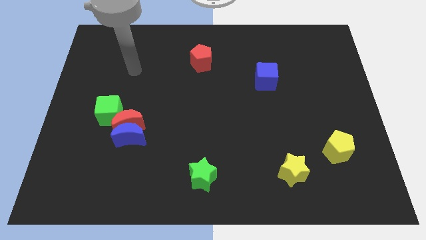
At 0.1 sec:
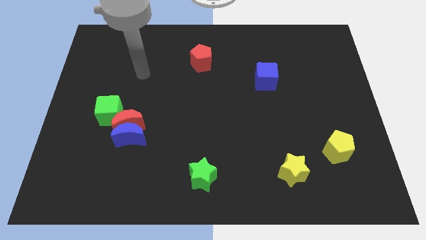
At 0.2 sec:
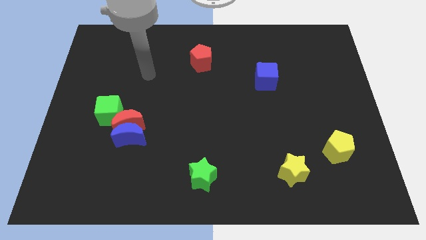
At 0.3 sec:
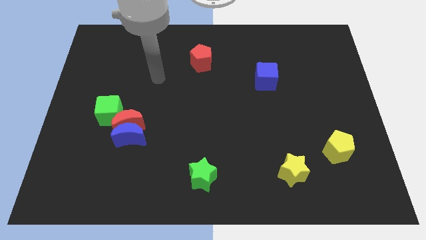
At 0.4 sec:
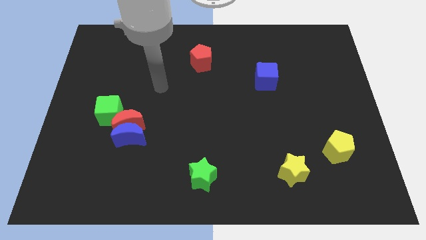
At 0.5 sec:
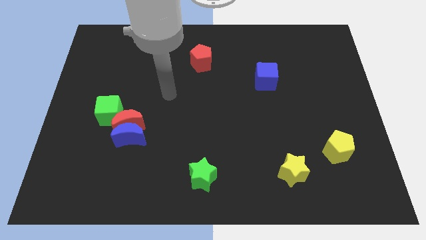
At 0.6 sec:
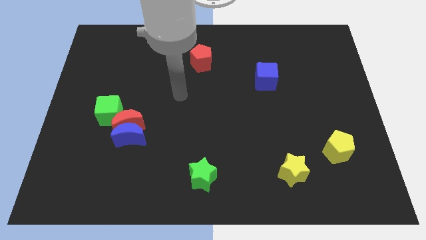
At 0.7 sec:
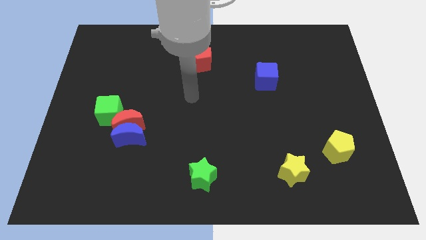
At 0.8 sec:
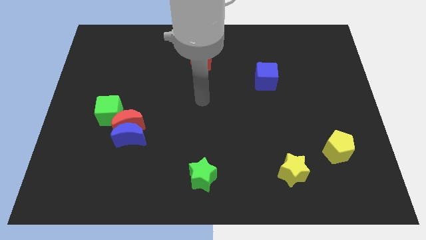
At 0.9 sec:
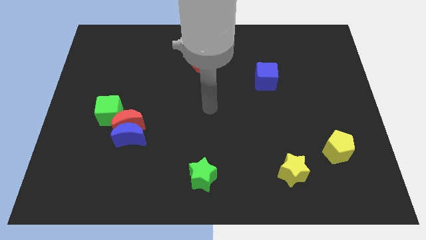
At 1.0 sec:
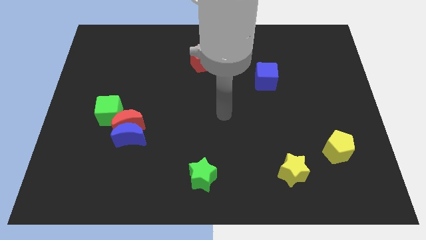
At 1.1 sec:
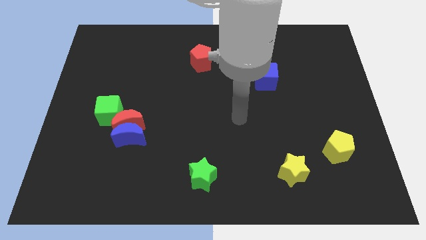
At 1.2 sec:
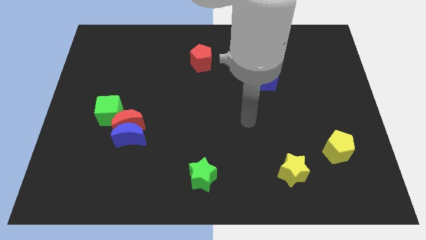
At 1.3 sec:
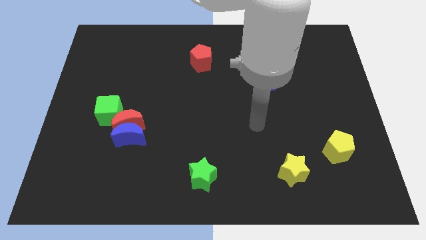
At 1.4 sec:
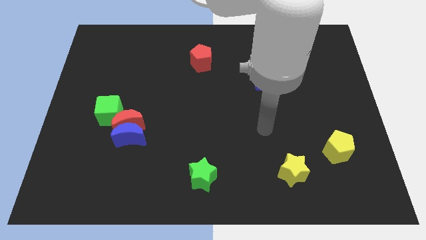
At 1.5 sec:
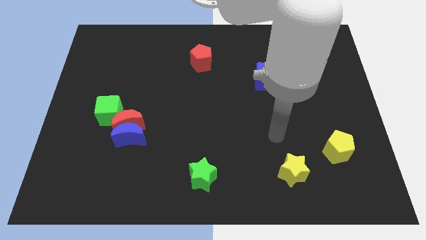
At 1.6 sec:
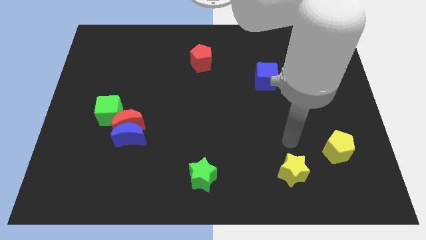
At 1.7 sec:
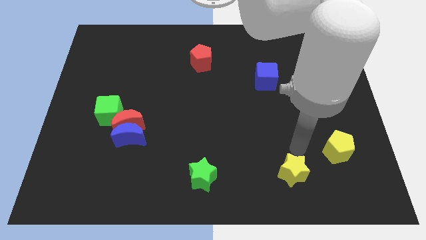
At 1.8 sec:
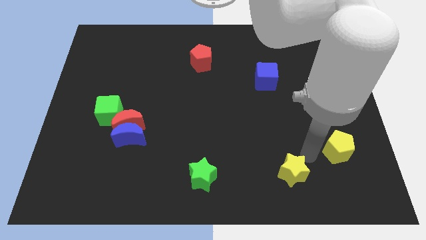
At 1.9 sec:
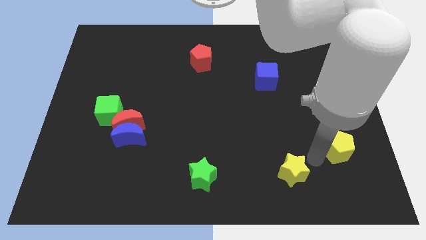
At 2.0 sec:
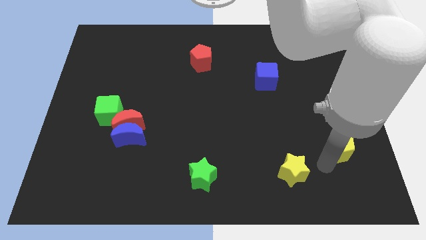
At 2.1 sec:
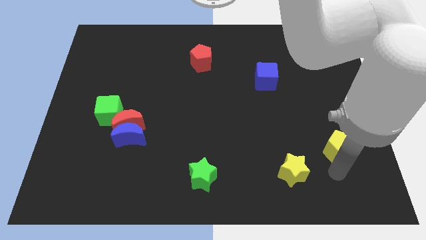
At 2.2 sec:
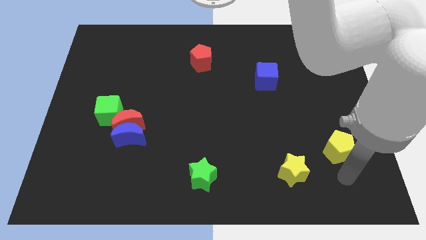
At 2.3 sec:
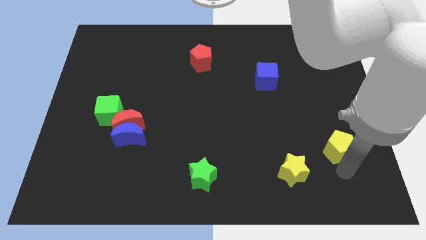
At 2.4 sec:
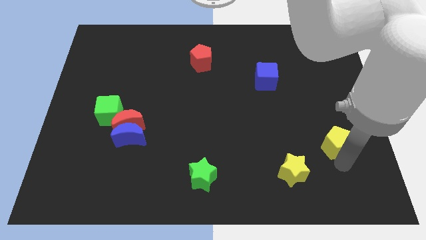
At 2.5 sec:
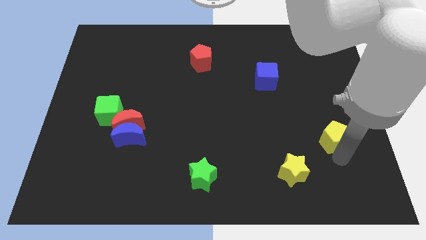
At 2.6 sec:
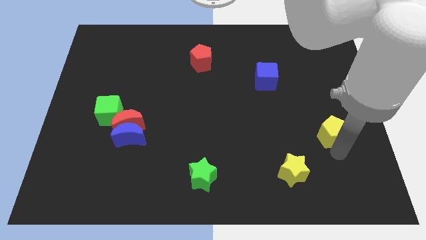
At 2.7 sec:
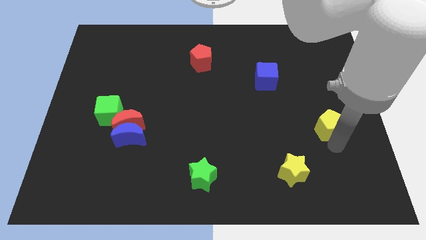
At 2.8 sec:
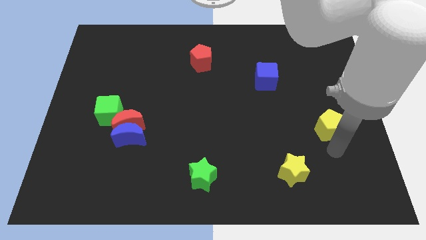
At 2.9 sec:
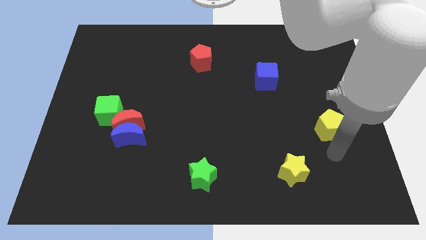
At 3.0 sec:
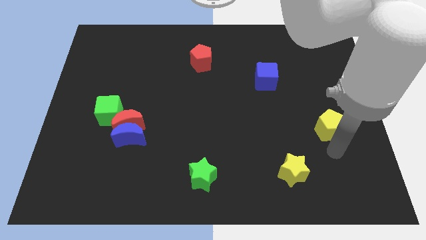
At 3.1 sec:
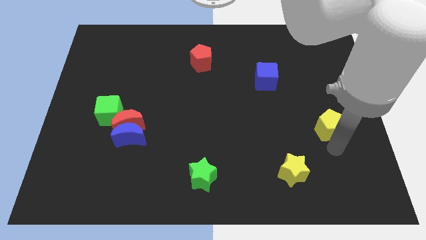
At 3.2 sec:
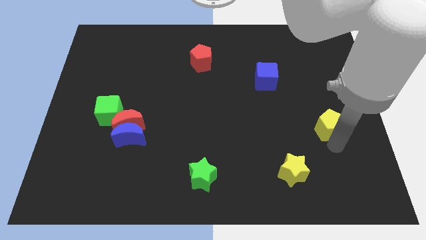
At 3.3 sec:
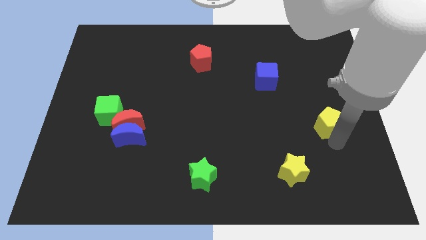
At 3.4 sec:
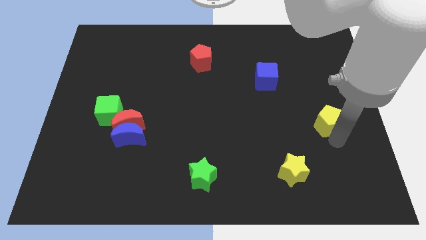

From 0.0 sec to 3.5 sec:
push the yellow pentagon a little upwards

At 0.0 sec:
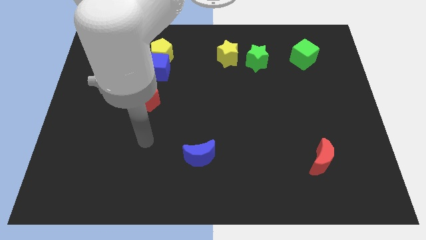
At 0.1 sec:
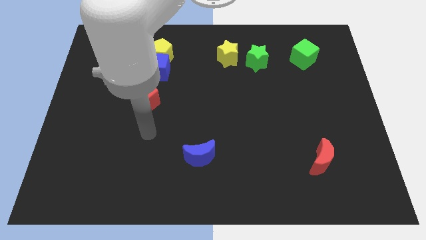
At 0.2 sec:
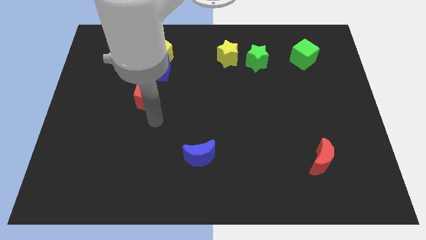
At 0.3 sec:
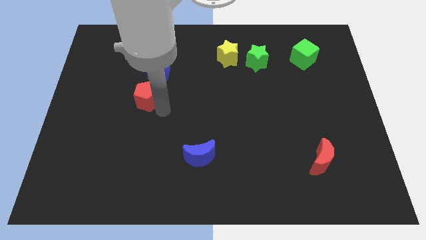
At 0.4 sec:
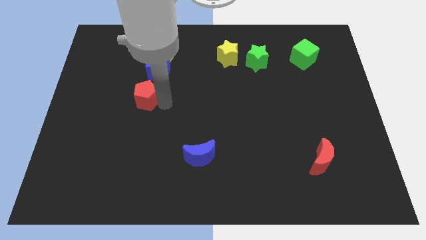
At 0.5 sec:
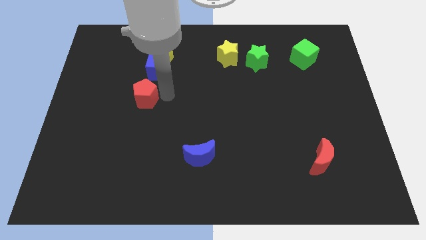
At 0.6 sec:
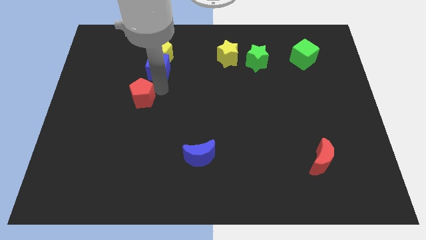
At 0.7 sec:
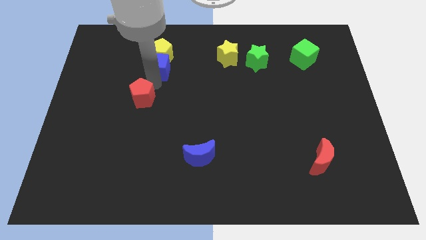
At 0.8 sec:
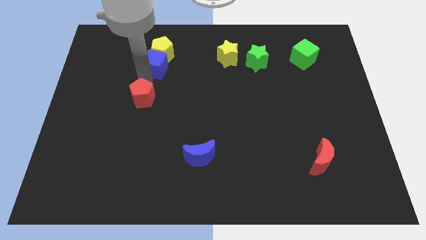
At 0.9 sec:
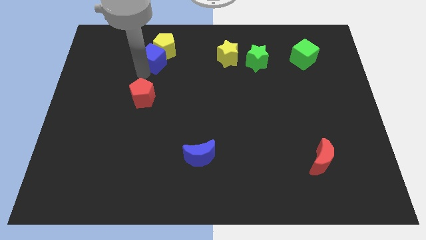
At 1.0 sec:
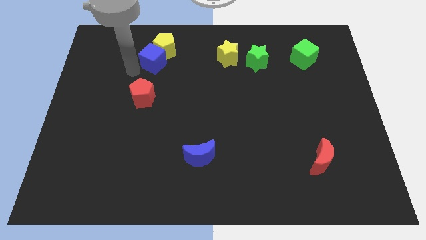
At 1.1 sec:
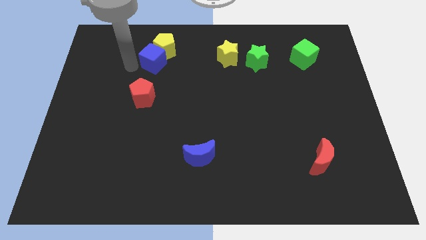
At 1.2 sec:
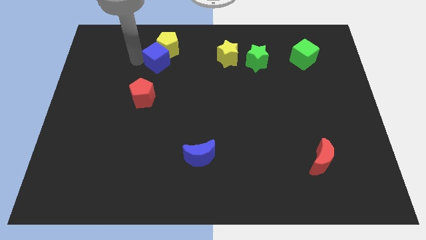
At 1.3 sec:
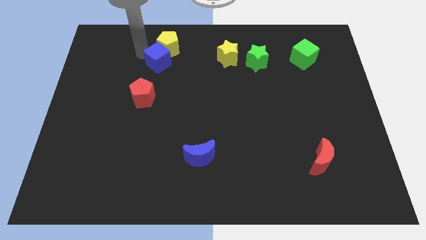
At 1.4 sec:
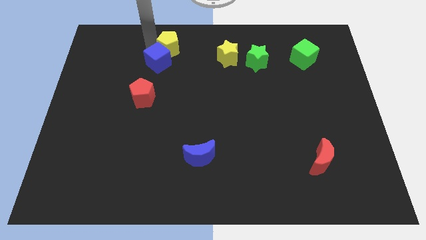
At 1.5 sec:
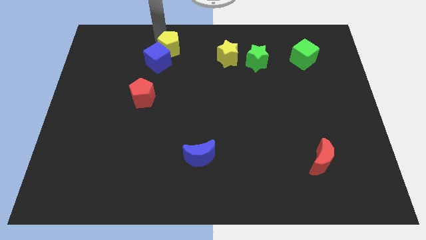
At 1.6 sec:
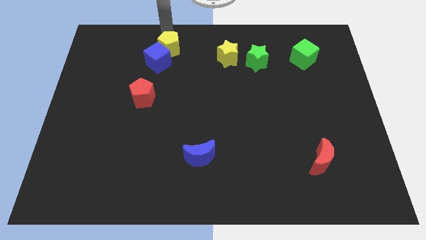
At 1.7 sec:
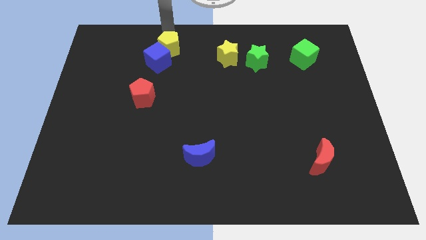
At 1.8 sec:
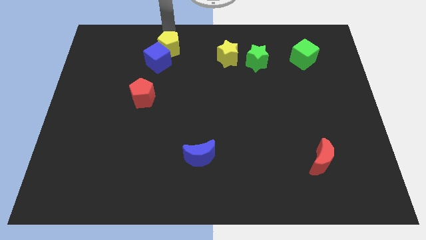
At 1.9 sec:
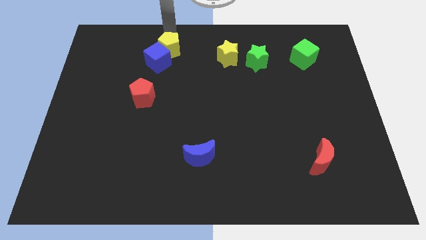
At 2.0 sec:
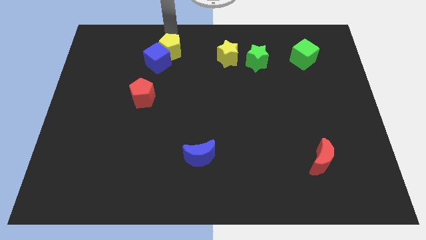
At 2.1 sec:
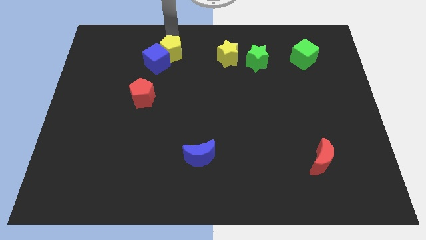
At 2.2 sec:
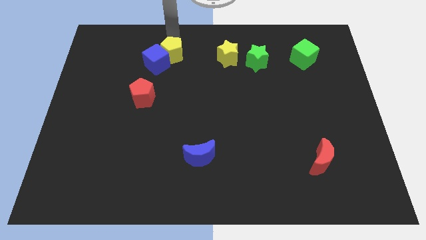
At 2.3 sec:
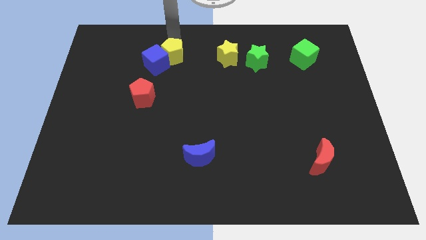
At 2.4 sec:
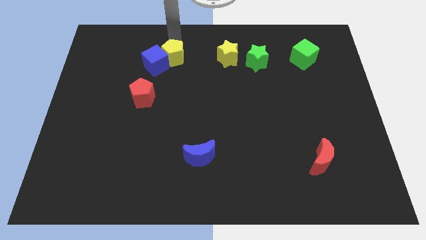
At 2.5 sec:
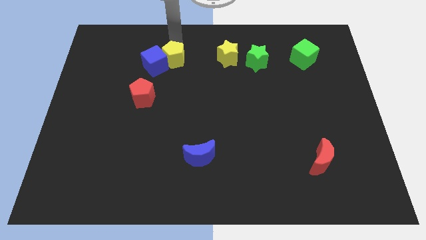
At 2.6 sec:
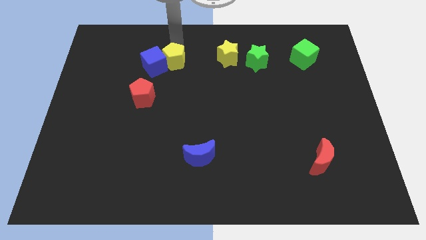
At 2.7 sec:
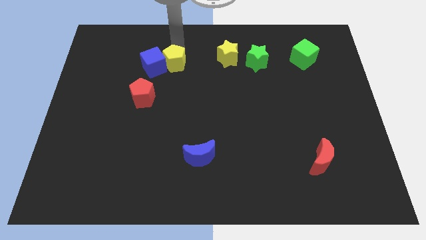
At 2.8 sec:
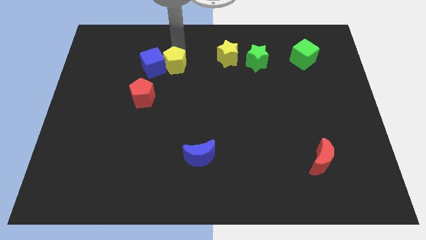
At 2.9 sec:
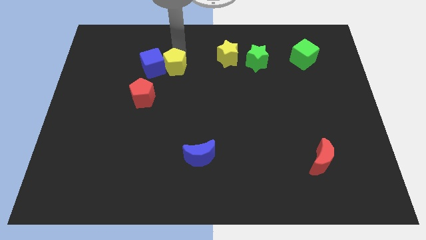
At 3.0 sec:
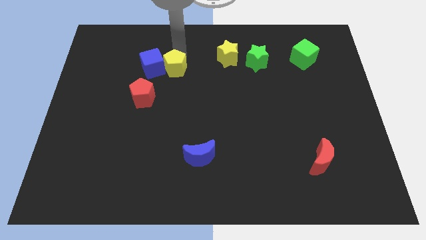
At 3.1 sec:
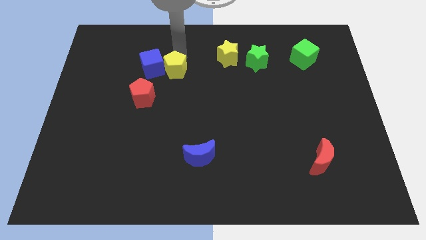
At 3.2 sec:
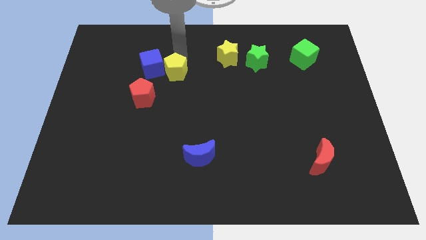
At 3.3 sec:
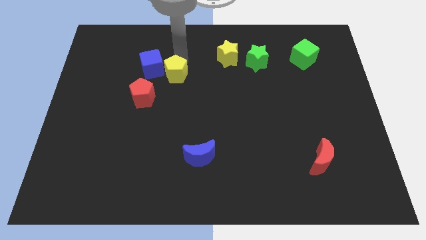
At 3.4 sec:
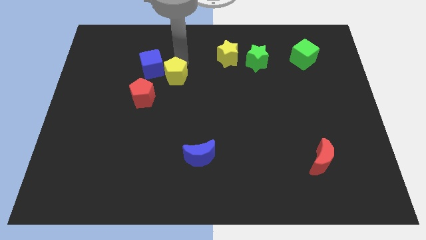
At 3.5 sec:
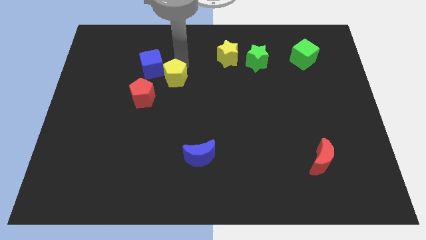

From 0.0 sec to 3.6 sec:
slide the yellow pentagon a little bit downwards

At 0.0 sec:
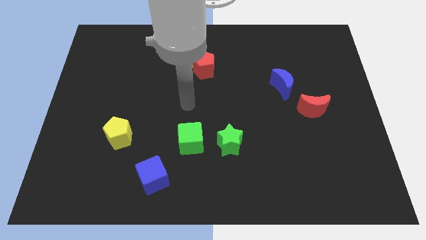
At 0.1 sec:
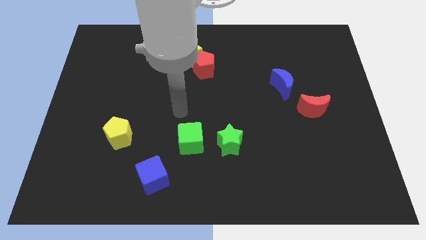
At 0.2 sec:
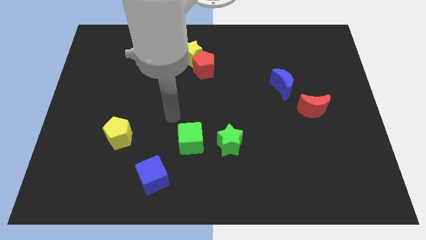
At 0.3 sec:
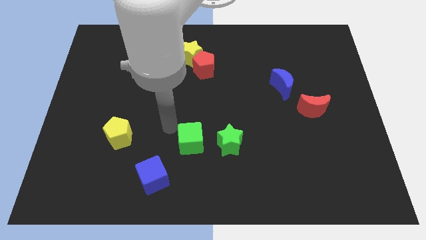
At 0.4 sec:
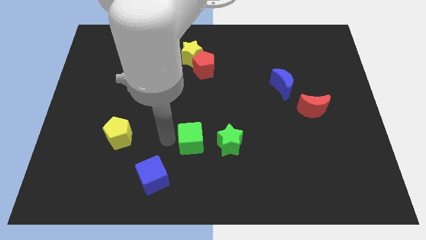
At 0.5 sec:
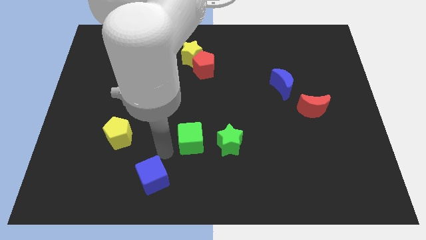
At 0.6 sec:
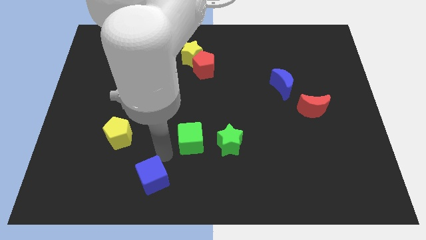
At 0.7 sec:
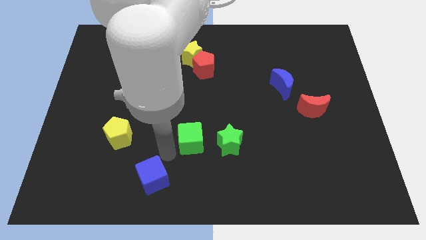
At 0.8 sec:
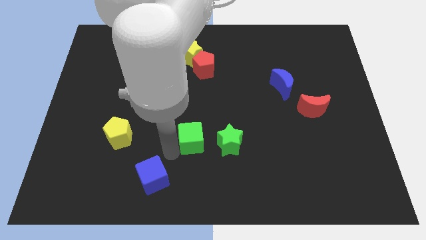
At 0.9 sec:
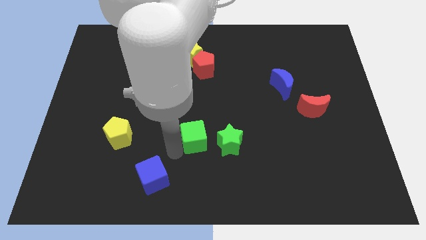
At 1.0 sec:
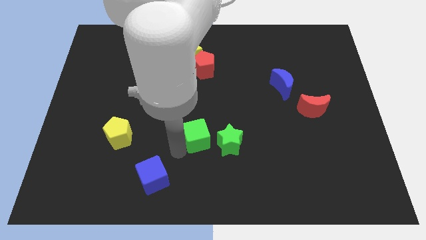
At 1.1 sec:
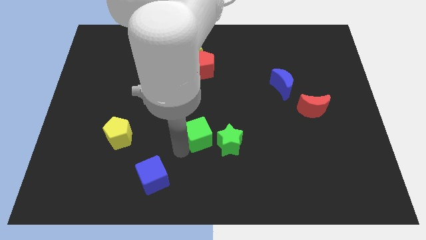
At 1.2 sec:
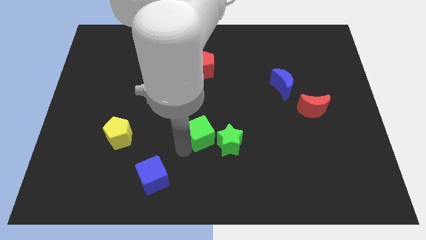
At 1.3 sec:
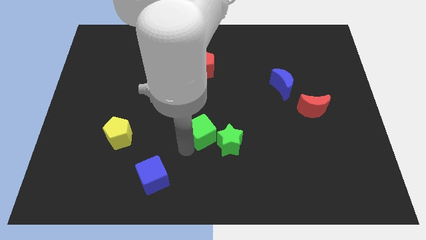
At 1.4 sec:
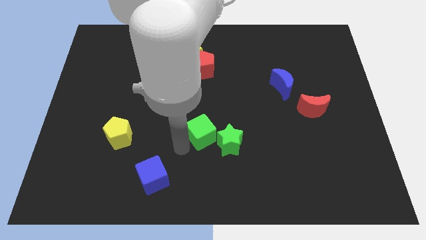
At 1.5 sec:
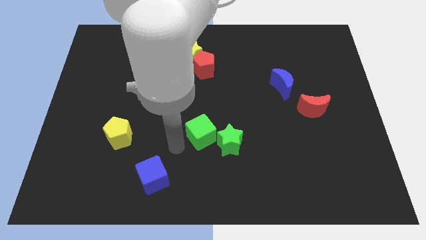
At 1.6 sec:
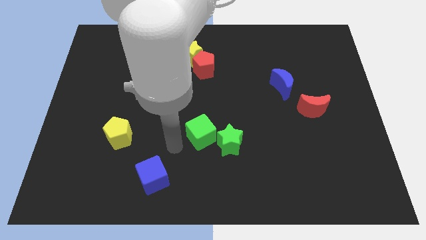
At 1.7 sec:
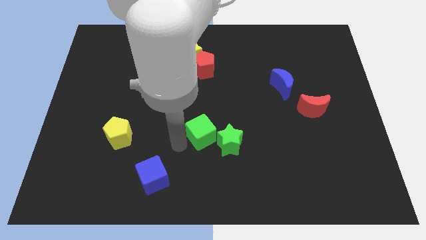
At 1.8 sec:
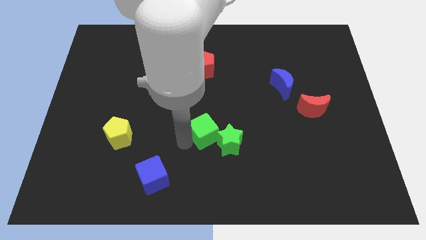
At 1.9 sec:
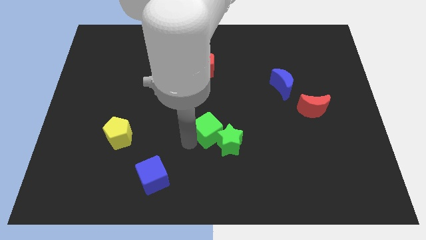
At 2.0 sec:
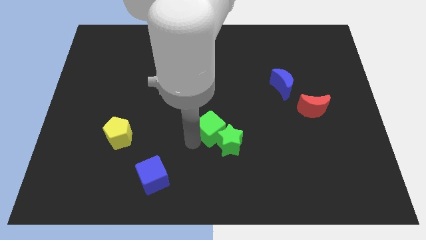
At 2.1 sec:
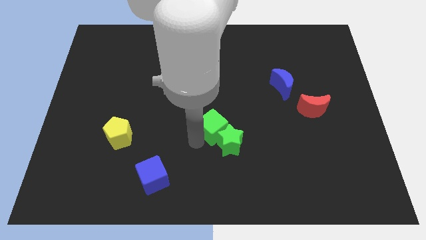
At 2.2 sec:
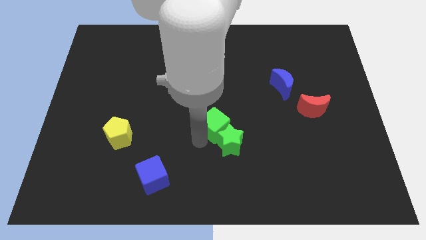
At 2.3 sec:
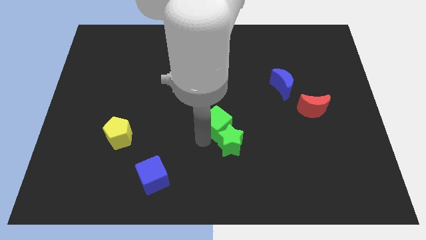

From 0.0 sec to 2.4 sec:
push the green cube upwards and to the right diagonally somewhat
